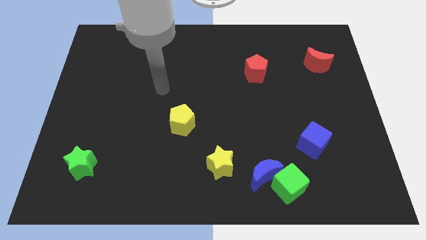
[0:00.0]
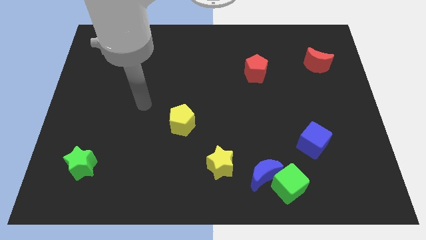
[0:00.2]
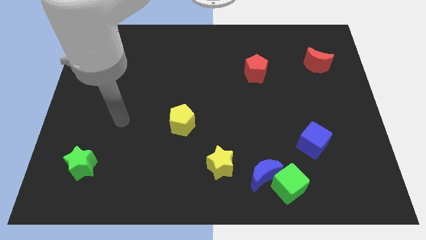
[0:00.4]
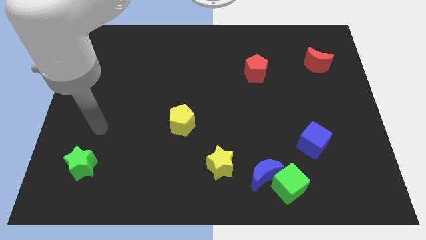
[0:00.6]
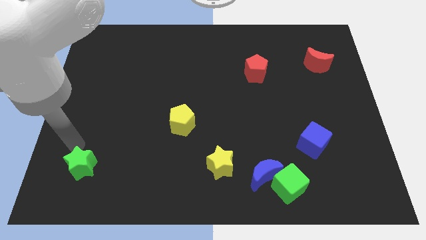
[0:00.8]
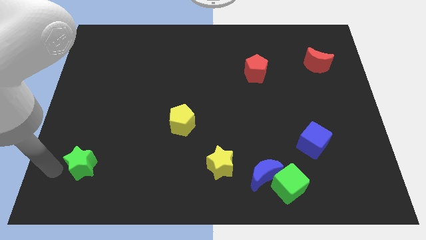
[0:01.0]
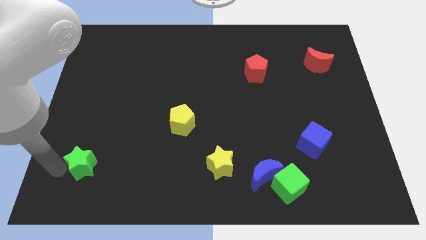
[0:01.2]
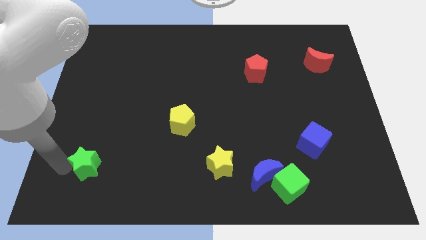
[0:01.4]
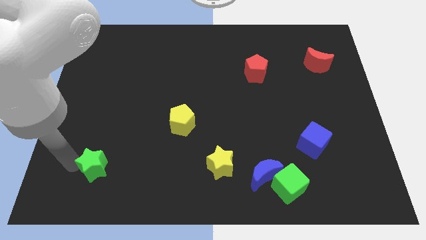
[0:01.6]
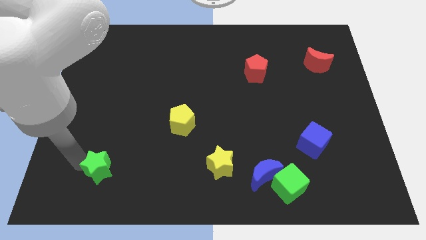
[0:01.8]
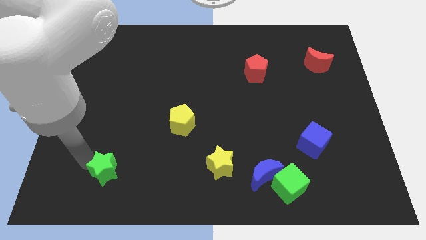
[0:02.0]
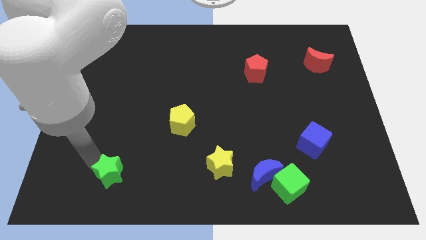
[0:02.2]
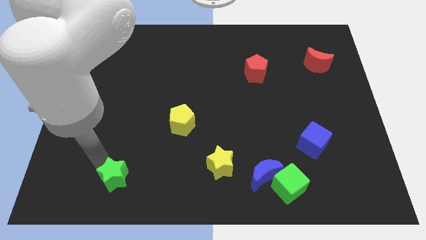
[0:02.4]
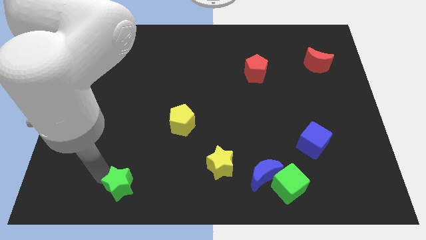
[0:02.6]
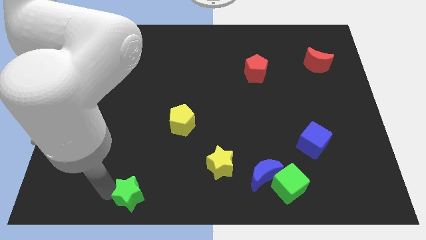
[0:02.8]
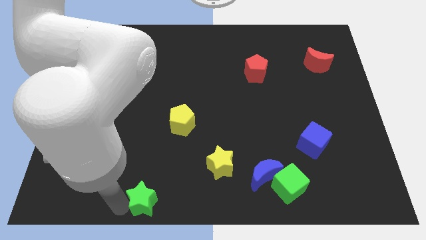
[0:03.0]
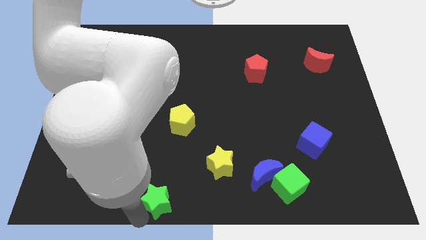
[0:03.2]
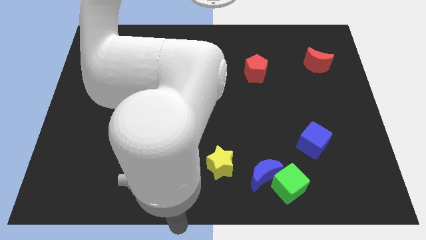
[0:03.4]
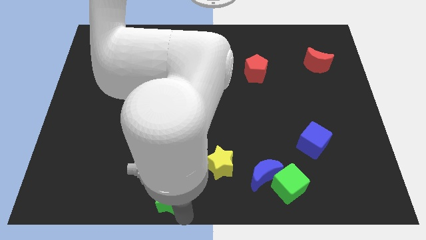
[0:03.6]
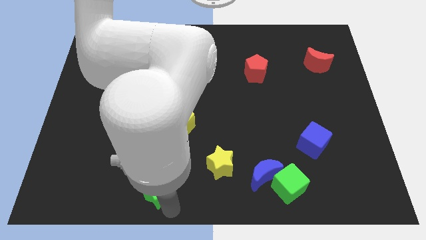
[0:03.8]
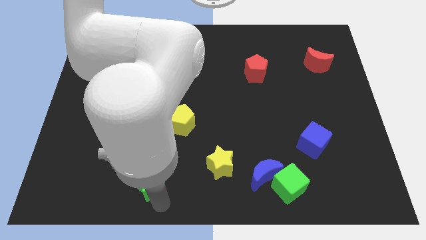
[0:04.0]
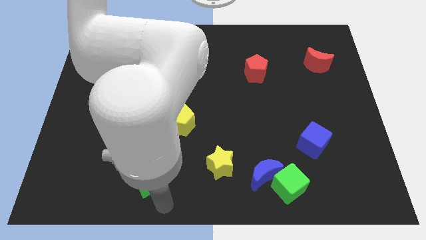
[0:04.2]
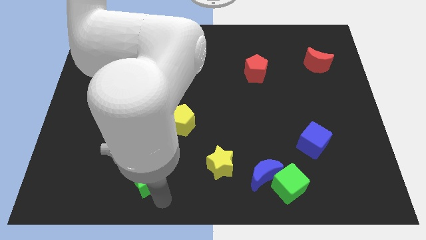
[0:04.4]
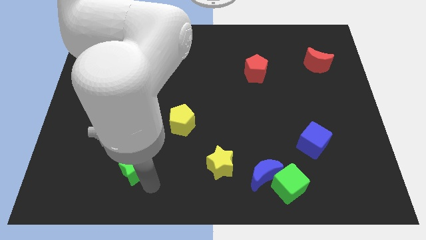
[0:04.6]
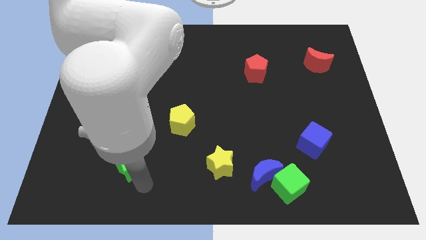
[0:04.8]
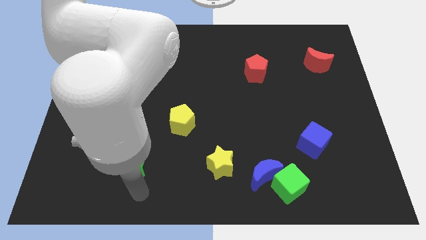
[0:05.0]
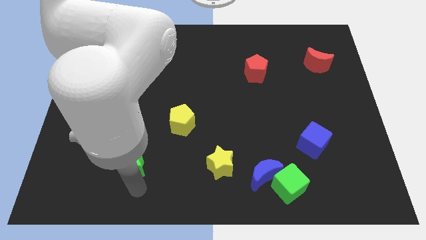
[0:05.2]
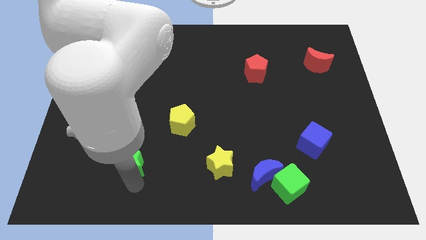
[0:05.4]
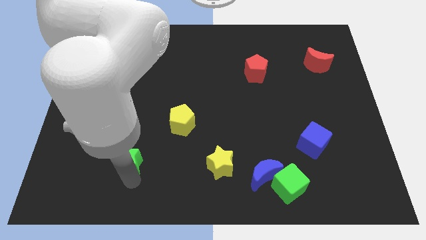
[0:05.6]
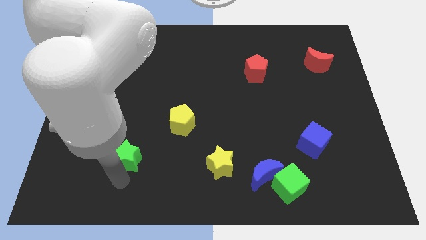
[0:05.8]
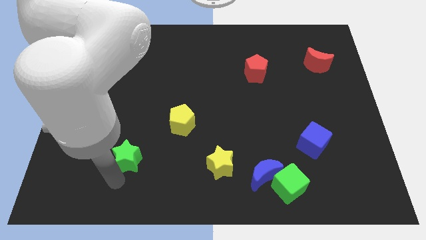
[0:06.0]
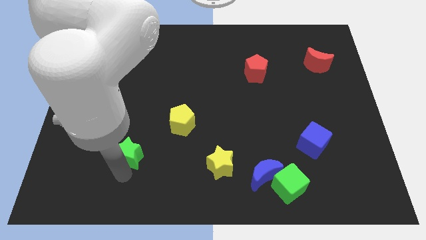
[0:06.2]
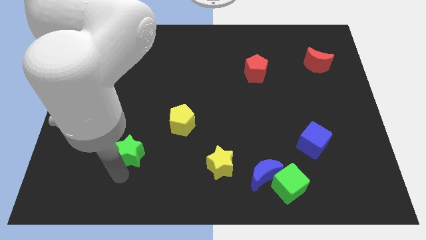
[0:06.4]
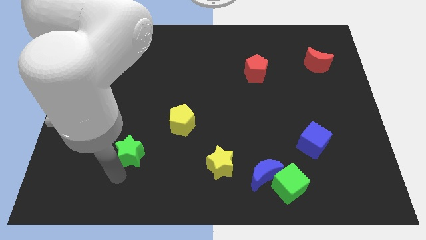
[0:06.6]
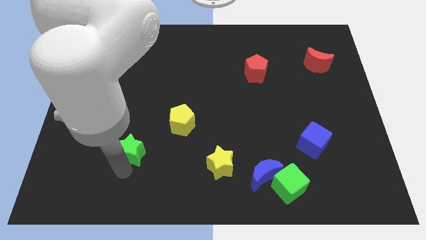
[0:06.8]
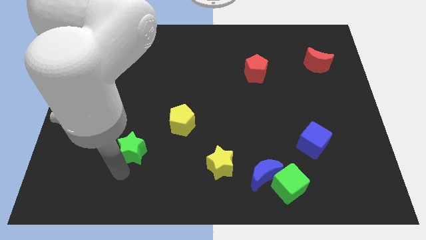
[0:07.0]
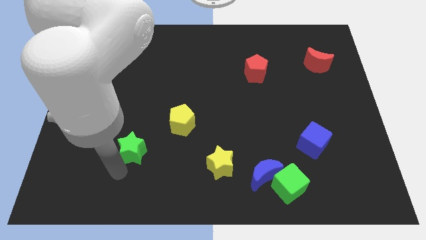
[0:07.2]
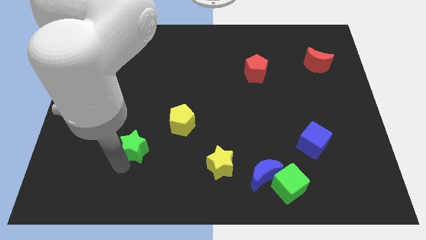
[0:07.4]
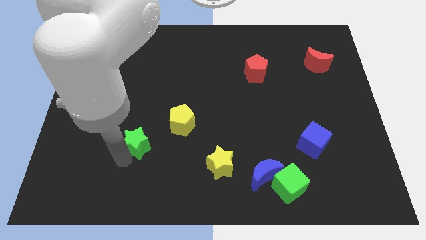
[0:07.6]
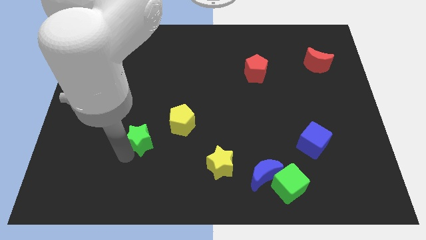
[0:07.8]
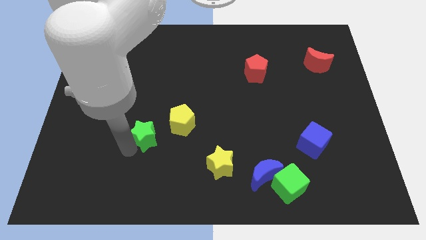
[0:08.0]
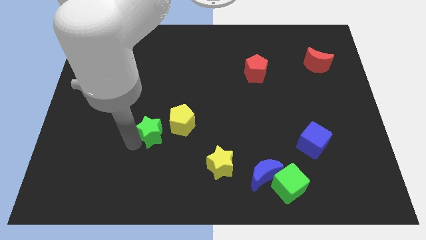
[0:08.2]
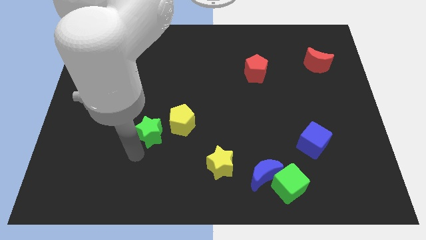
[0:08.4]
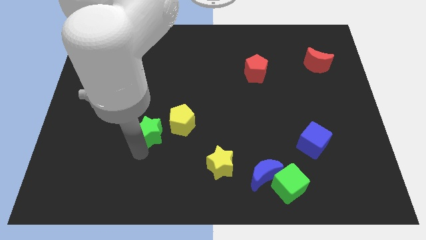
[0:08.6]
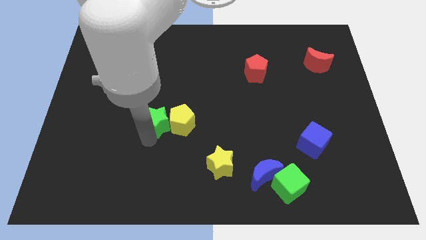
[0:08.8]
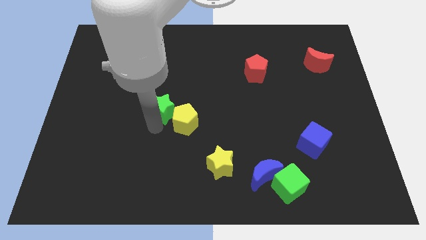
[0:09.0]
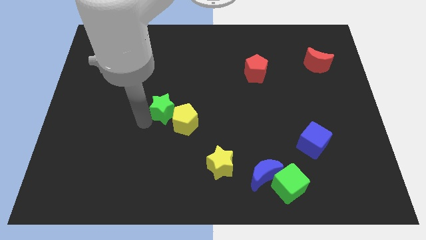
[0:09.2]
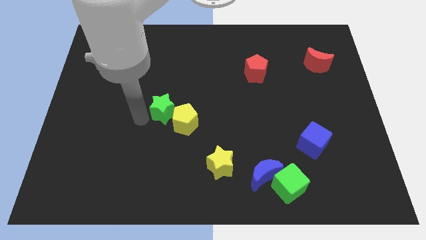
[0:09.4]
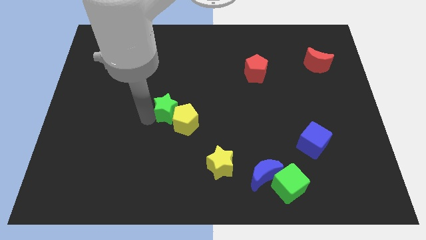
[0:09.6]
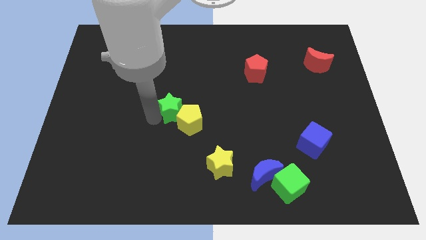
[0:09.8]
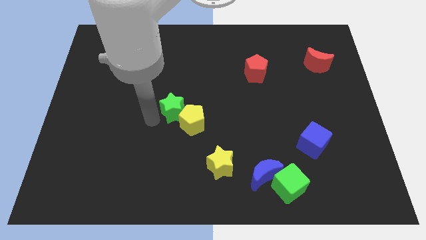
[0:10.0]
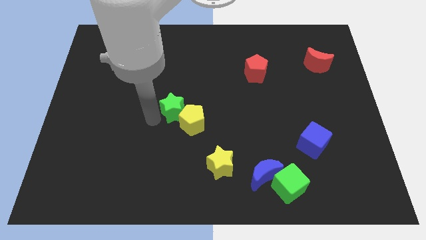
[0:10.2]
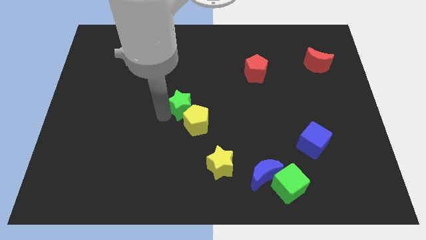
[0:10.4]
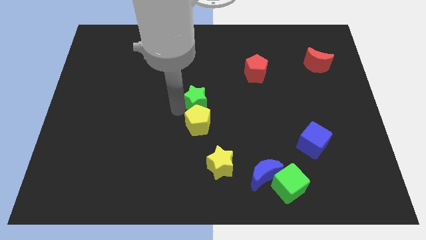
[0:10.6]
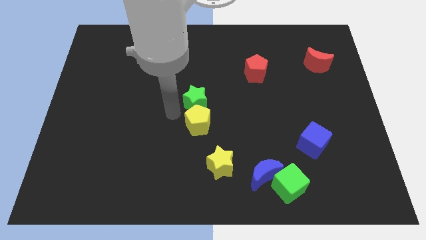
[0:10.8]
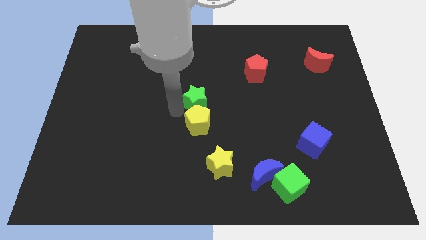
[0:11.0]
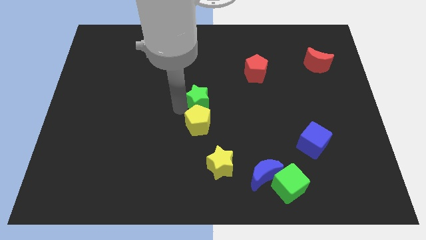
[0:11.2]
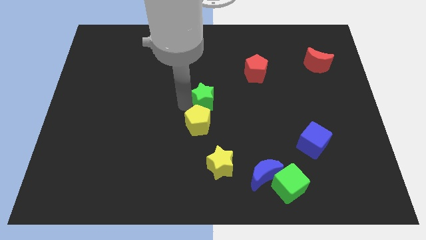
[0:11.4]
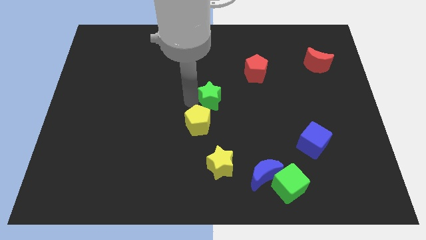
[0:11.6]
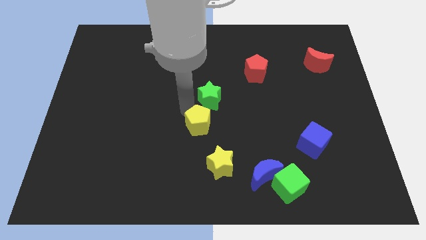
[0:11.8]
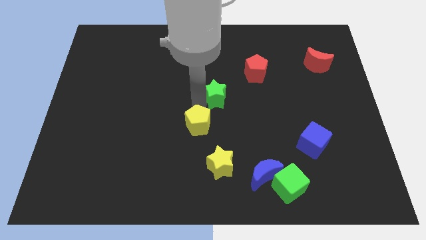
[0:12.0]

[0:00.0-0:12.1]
move the green star to the bottom left side of the red pentagon
